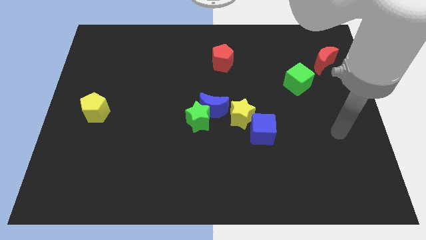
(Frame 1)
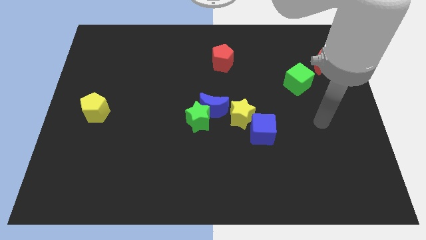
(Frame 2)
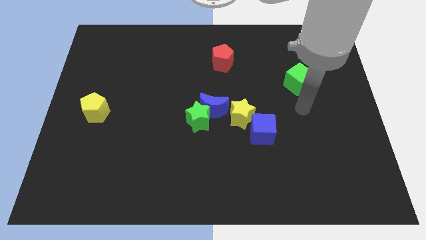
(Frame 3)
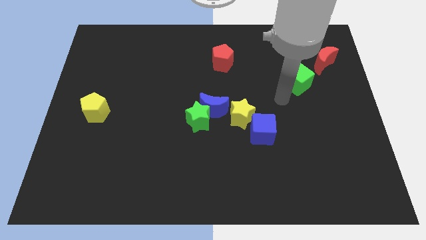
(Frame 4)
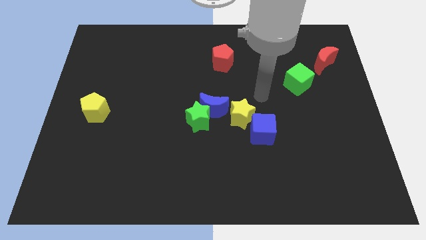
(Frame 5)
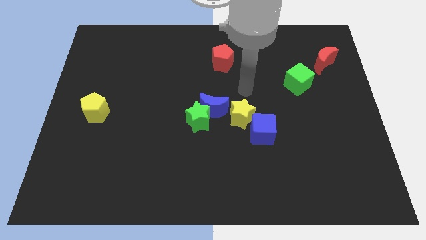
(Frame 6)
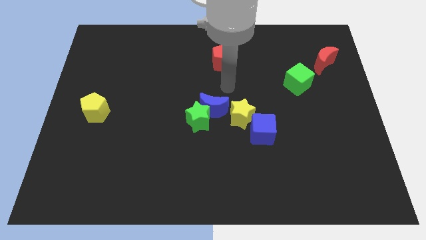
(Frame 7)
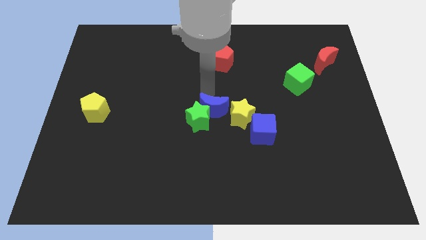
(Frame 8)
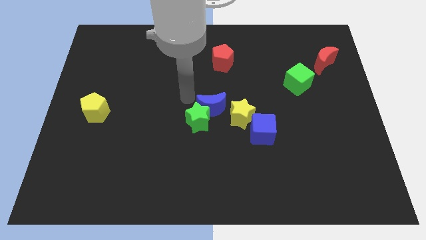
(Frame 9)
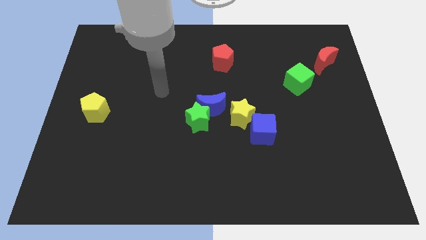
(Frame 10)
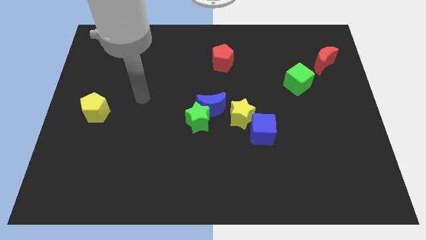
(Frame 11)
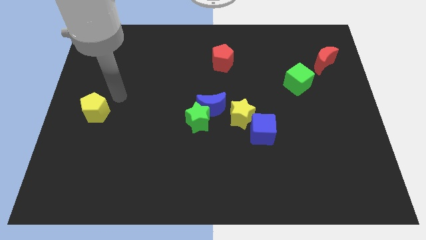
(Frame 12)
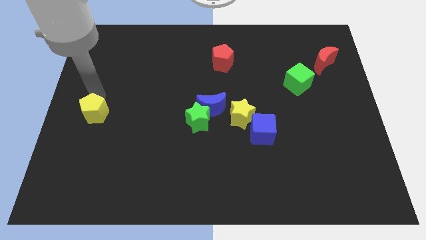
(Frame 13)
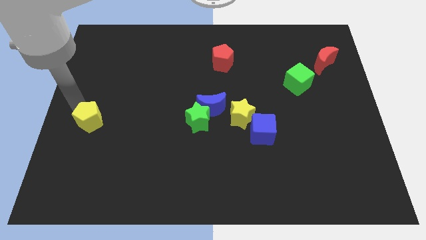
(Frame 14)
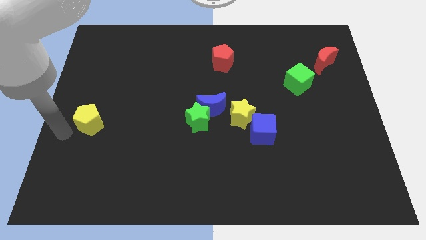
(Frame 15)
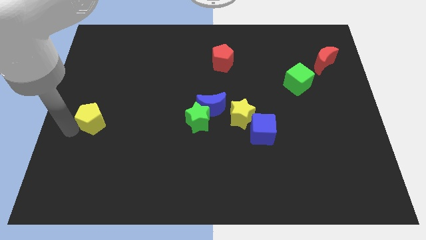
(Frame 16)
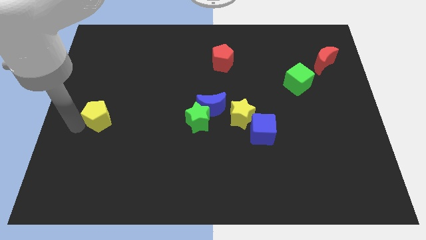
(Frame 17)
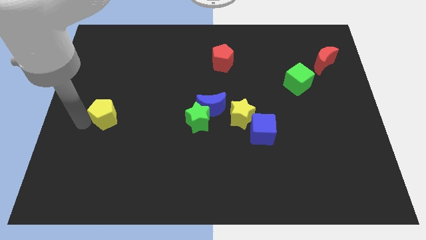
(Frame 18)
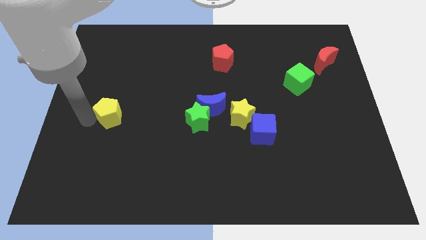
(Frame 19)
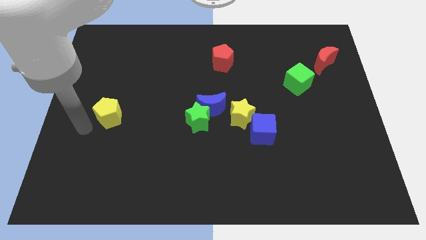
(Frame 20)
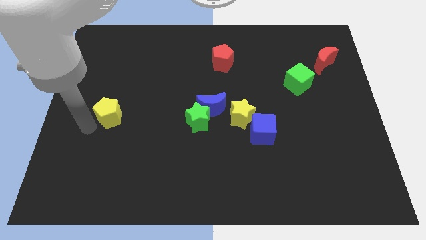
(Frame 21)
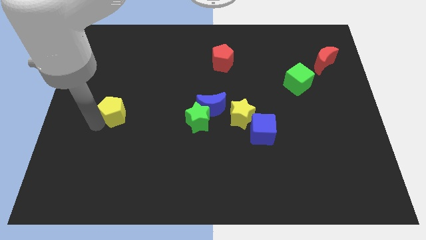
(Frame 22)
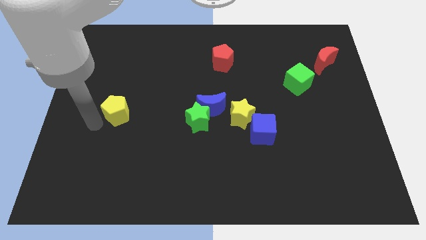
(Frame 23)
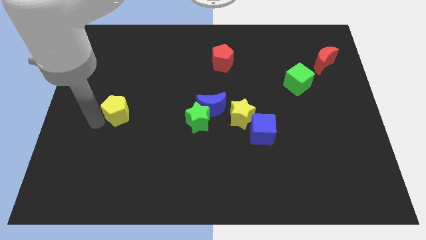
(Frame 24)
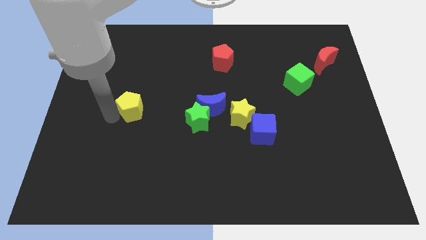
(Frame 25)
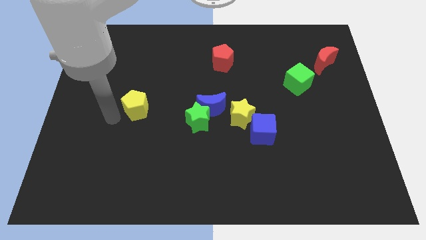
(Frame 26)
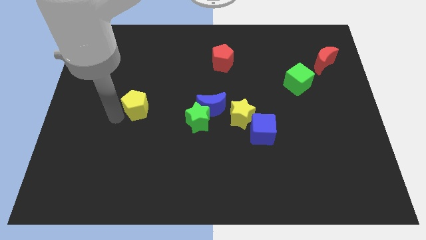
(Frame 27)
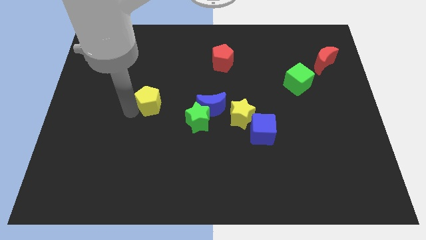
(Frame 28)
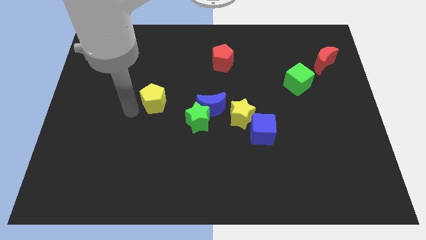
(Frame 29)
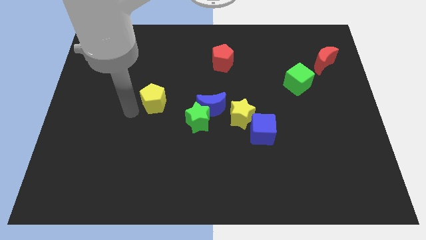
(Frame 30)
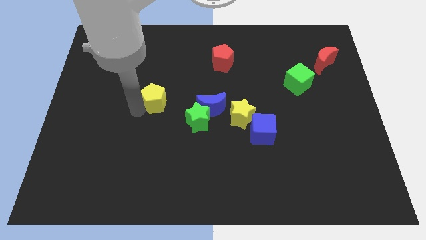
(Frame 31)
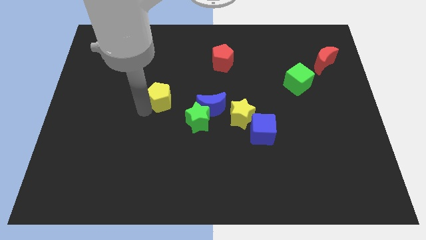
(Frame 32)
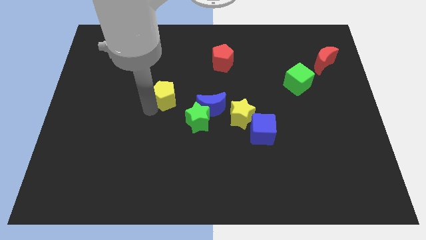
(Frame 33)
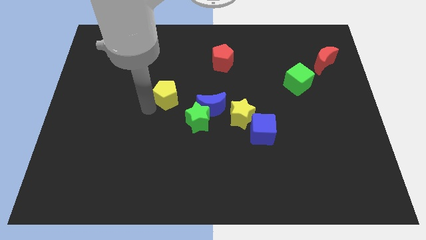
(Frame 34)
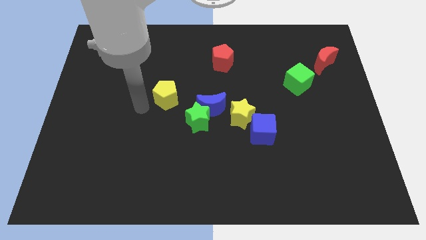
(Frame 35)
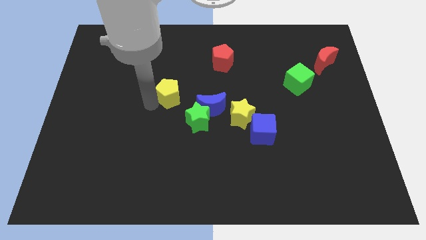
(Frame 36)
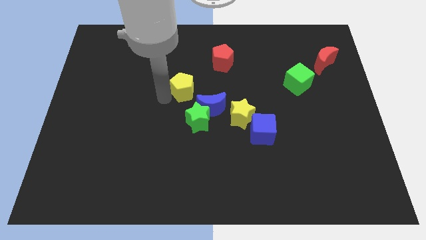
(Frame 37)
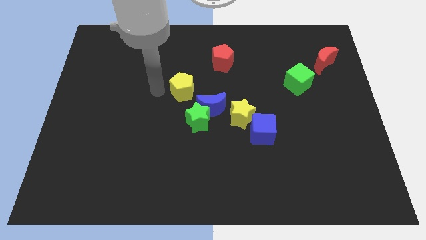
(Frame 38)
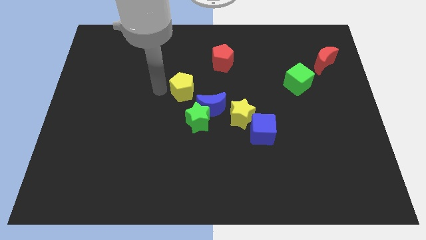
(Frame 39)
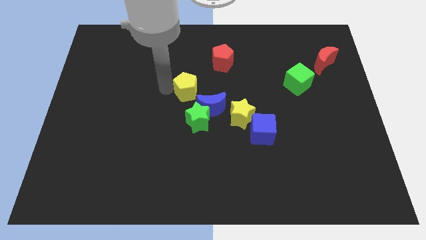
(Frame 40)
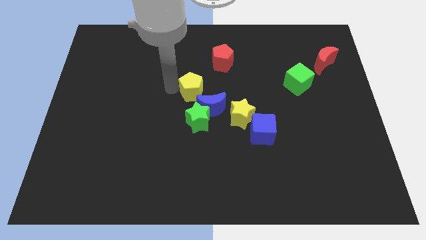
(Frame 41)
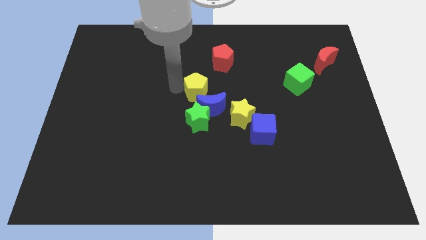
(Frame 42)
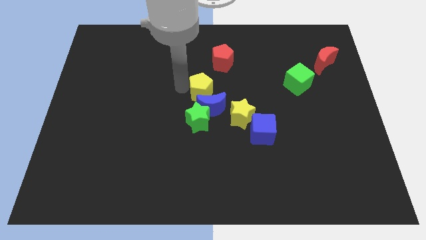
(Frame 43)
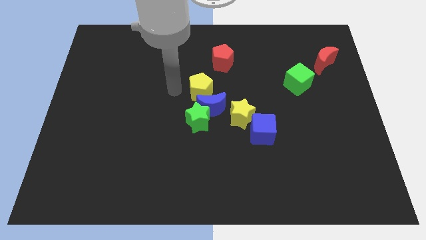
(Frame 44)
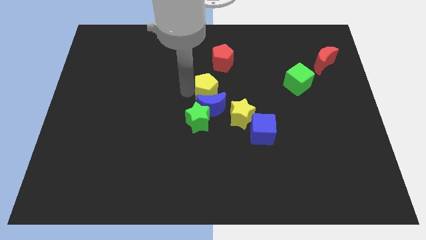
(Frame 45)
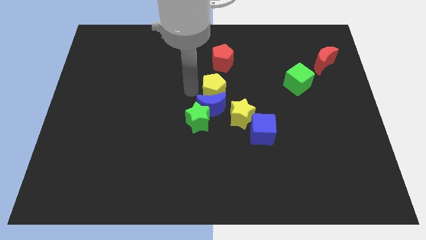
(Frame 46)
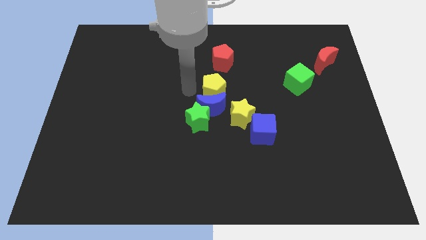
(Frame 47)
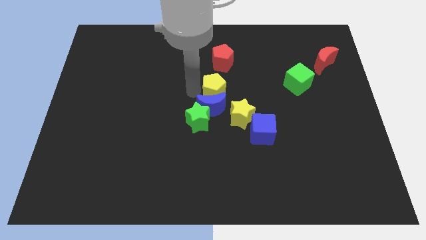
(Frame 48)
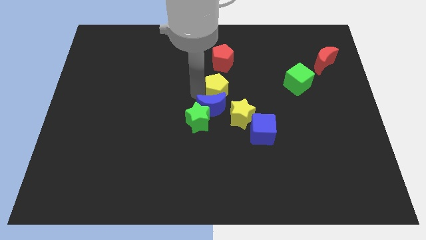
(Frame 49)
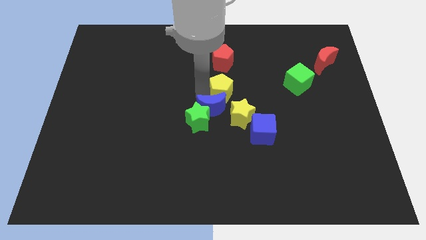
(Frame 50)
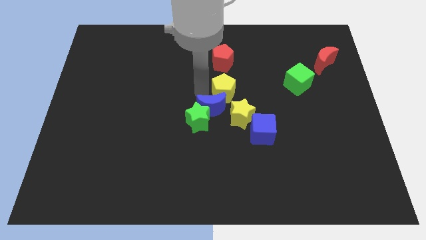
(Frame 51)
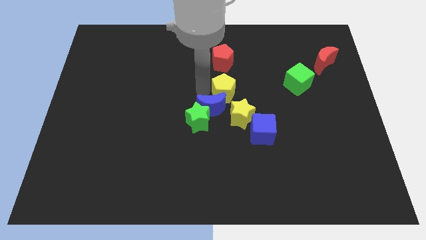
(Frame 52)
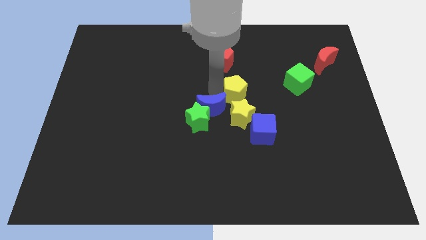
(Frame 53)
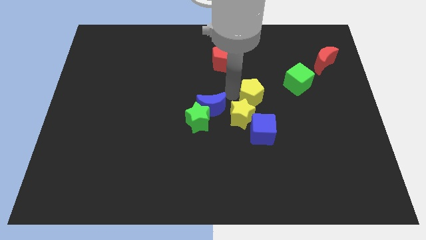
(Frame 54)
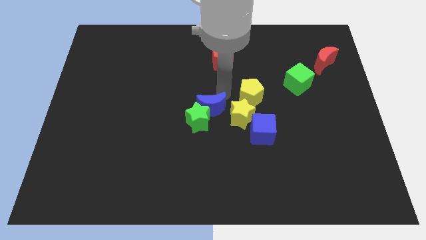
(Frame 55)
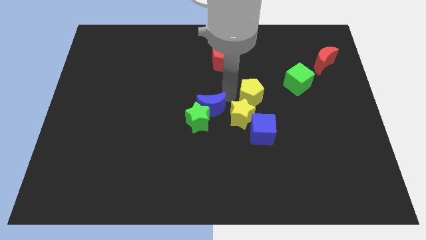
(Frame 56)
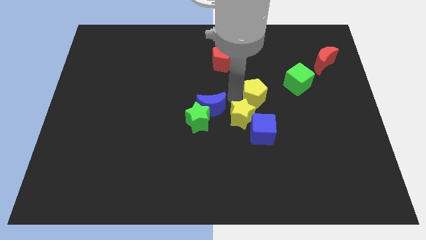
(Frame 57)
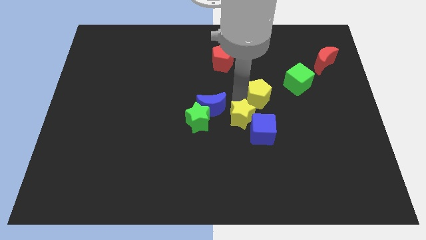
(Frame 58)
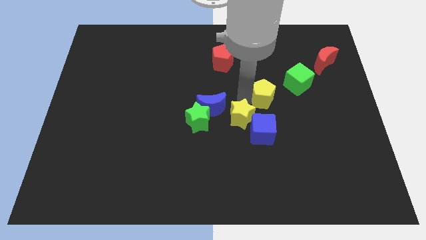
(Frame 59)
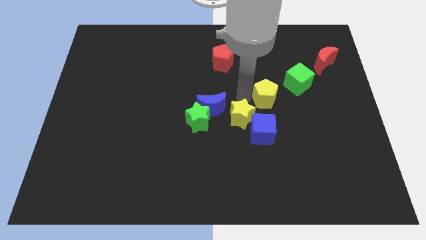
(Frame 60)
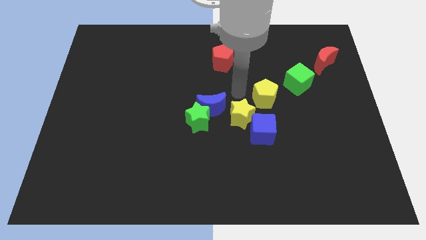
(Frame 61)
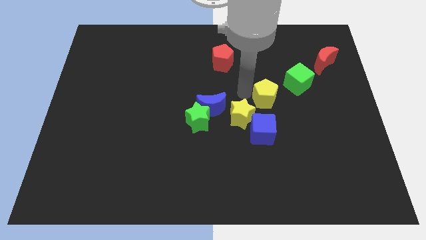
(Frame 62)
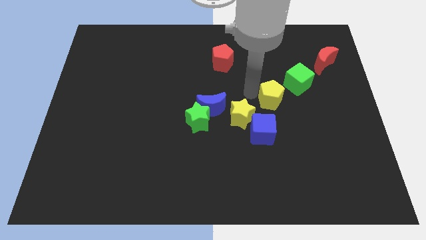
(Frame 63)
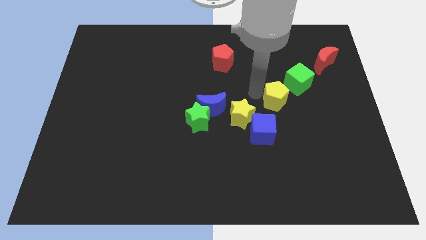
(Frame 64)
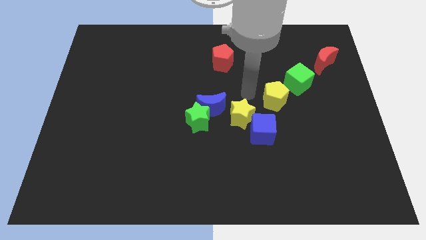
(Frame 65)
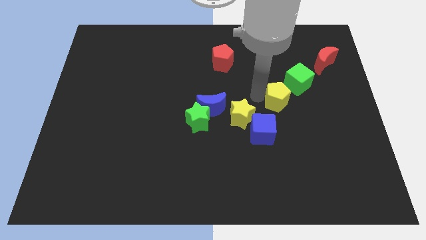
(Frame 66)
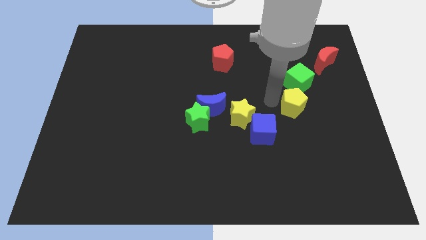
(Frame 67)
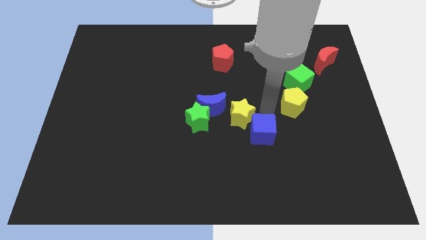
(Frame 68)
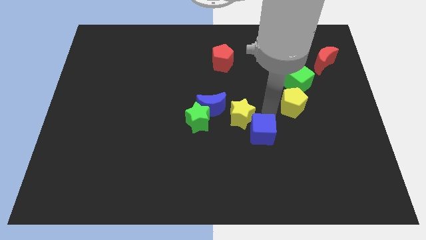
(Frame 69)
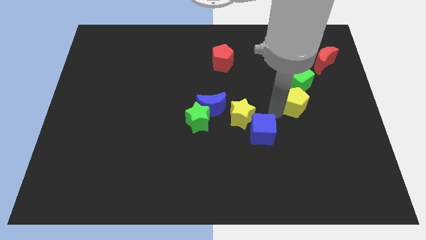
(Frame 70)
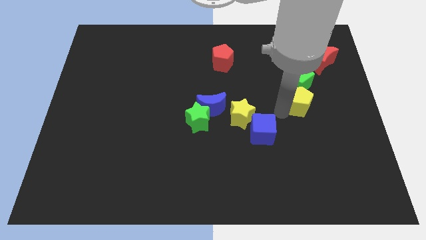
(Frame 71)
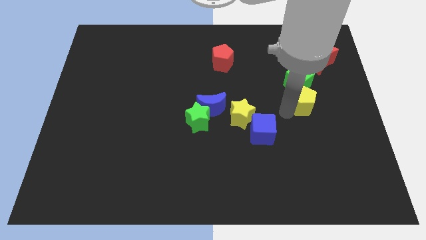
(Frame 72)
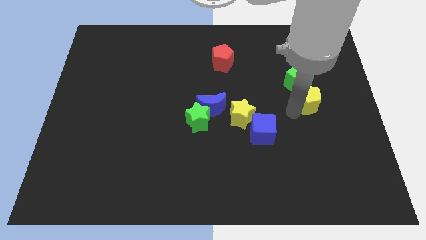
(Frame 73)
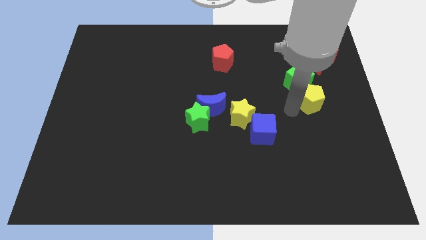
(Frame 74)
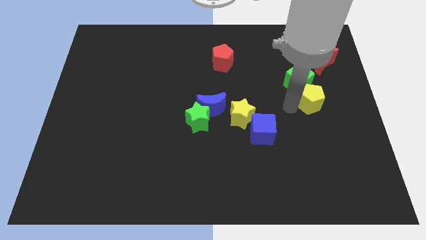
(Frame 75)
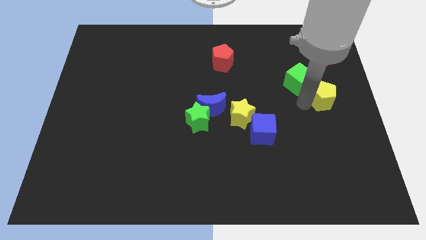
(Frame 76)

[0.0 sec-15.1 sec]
slide the yellow pentagon to the center right
